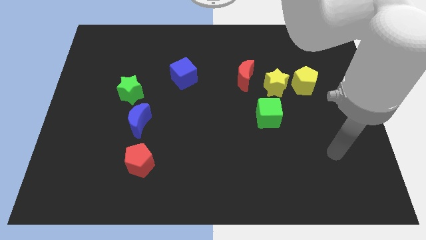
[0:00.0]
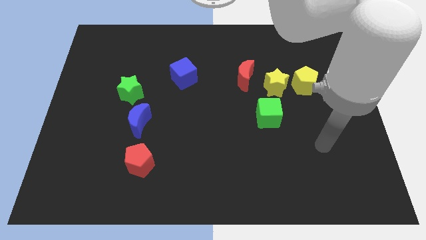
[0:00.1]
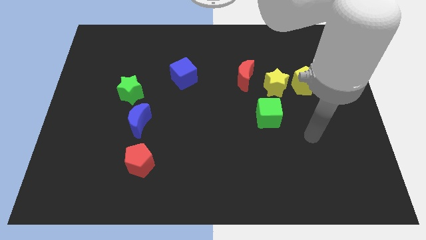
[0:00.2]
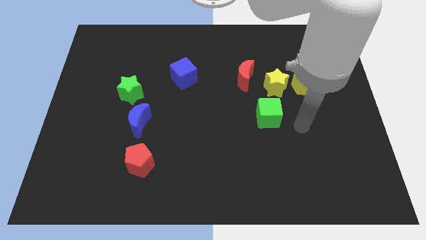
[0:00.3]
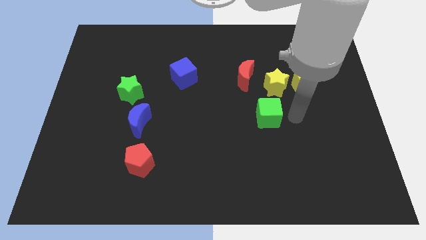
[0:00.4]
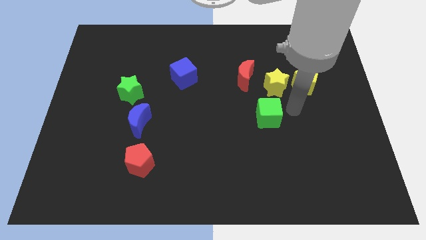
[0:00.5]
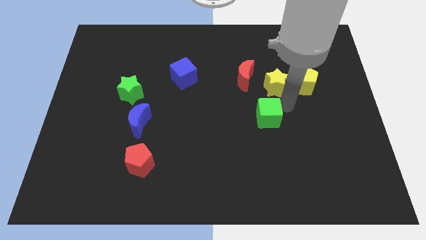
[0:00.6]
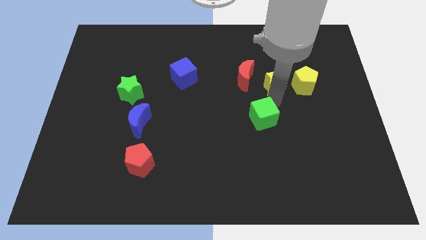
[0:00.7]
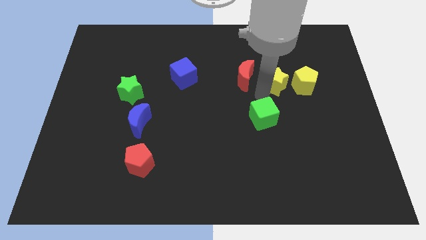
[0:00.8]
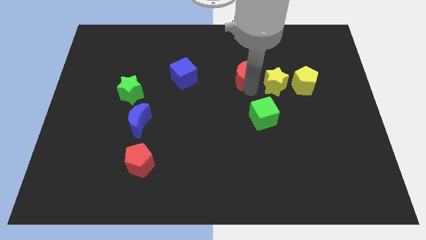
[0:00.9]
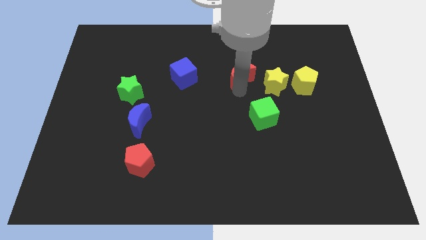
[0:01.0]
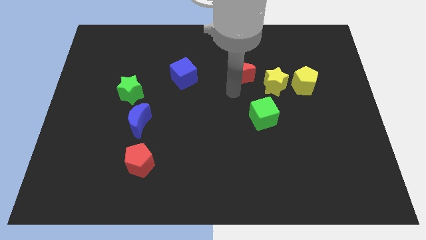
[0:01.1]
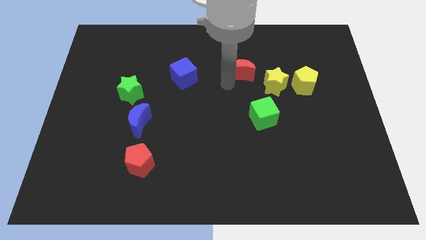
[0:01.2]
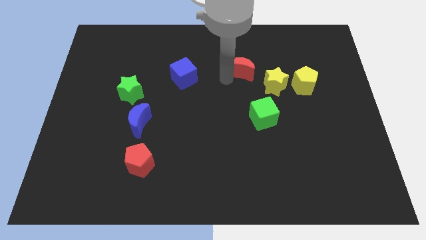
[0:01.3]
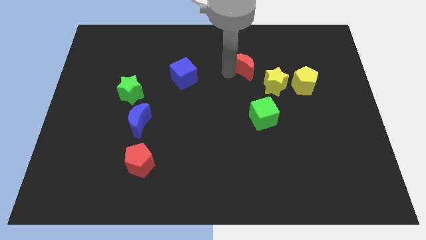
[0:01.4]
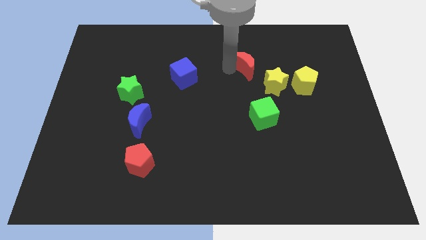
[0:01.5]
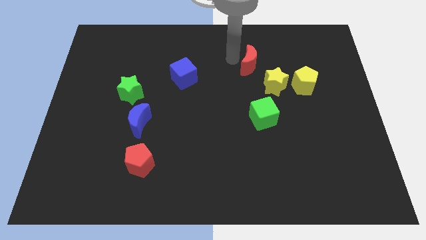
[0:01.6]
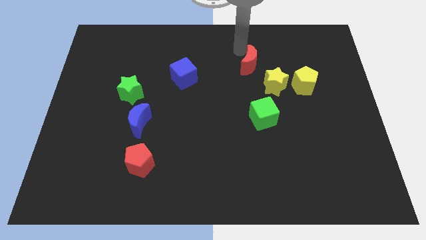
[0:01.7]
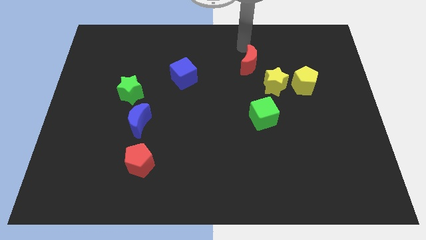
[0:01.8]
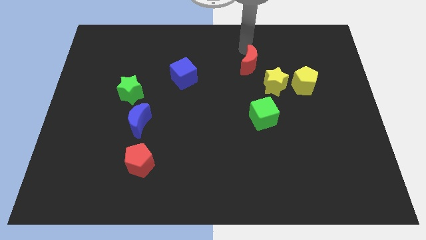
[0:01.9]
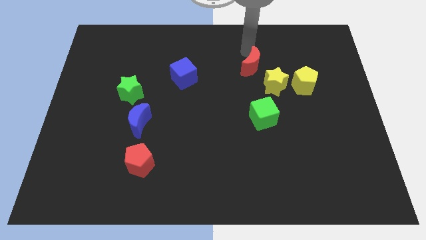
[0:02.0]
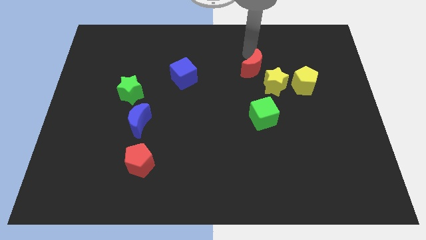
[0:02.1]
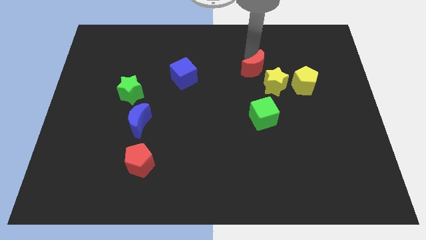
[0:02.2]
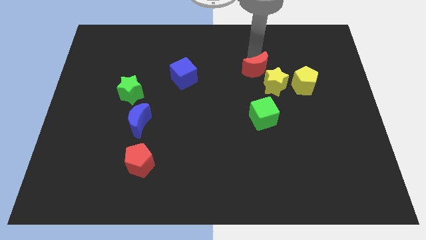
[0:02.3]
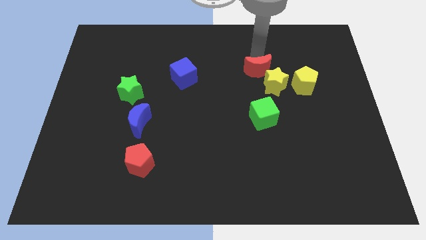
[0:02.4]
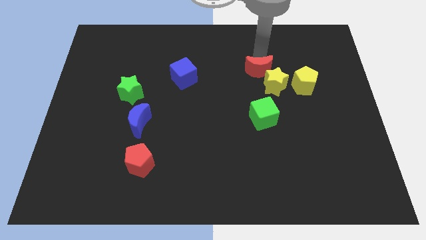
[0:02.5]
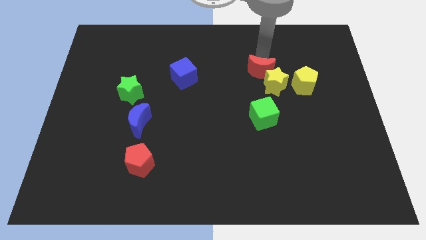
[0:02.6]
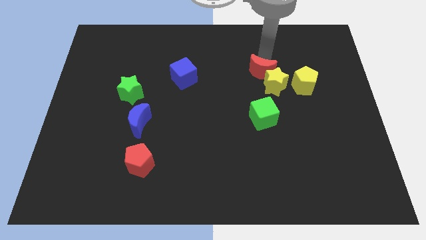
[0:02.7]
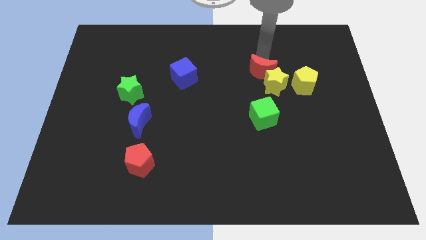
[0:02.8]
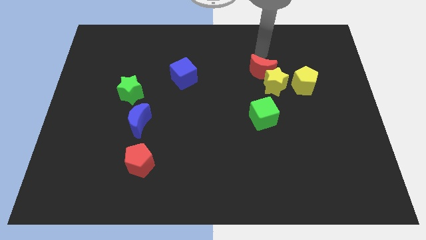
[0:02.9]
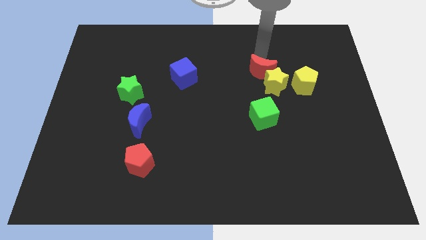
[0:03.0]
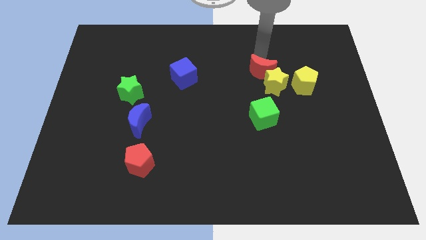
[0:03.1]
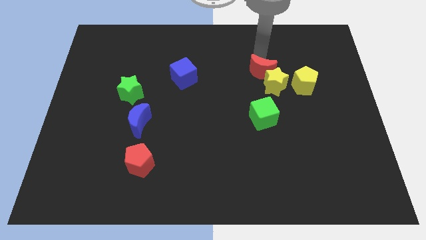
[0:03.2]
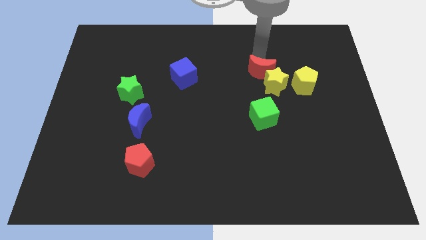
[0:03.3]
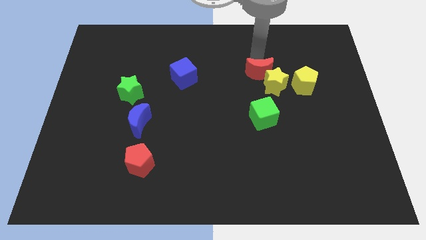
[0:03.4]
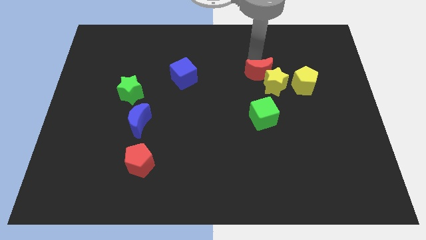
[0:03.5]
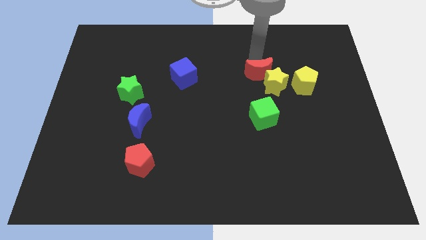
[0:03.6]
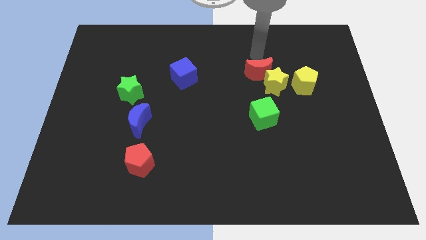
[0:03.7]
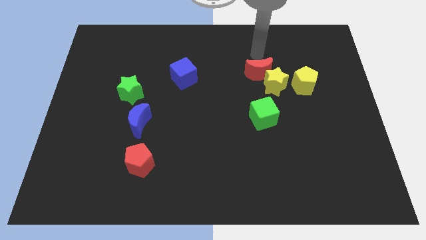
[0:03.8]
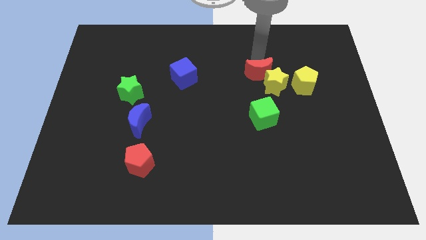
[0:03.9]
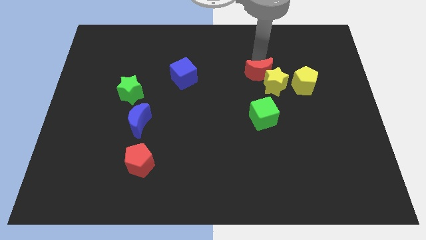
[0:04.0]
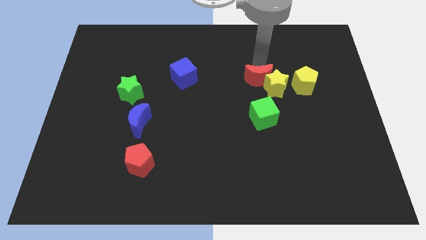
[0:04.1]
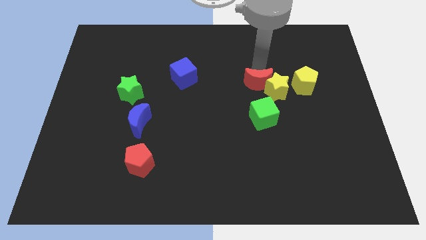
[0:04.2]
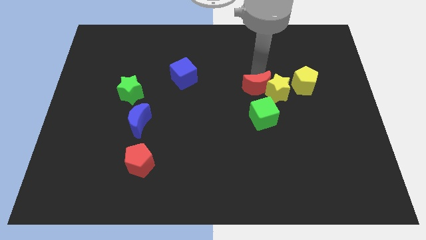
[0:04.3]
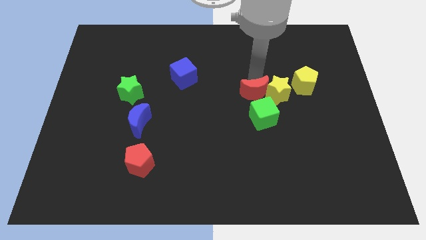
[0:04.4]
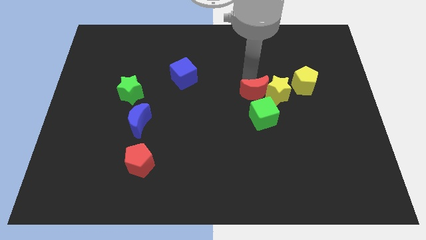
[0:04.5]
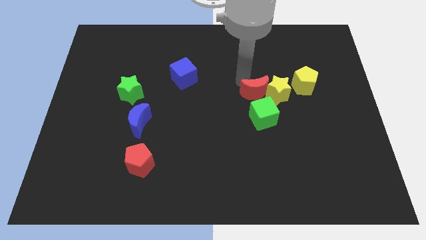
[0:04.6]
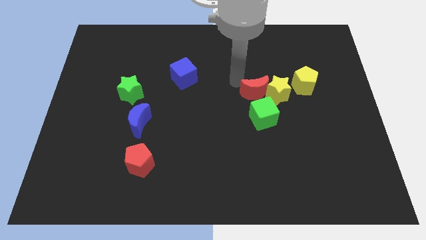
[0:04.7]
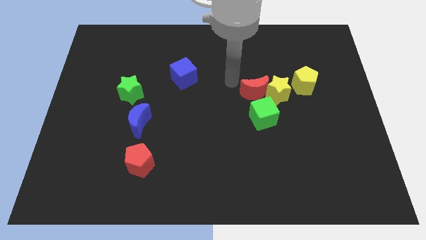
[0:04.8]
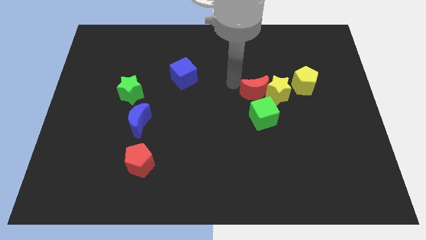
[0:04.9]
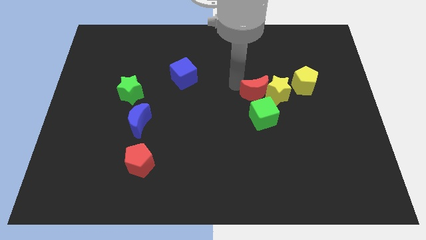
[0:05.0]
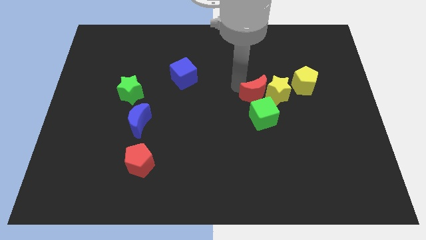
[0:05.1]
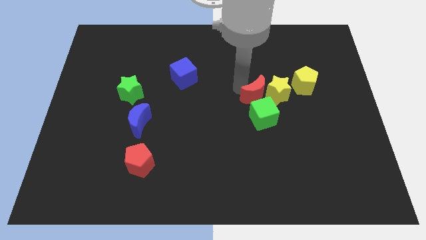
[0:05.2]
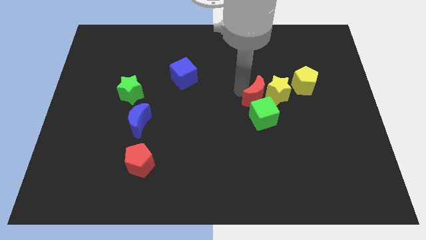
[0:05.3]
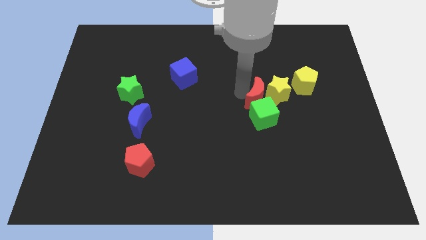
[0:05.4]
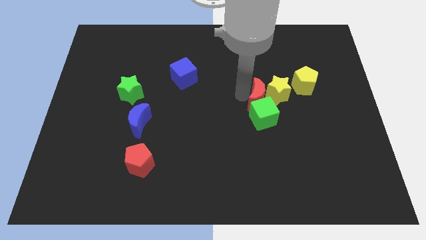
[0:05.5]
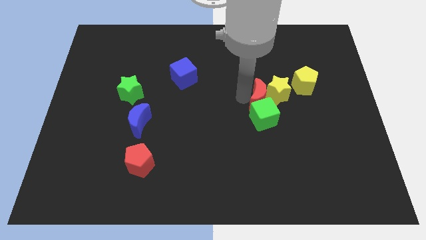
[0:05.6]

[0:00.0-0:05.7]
slightly push the red moon down and right

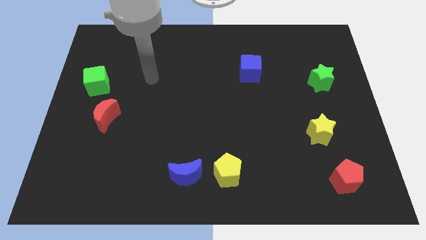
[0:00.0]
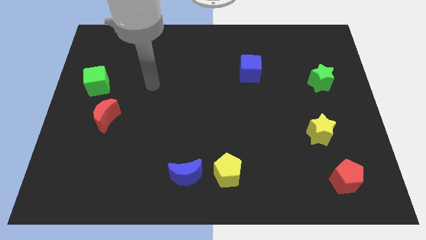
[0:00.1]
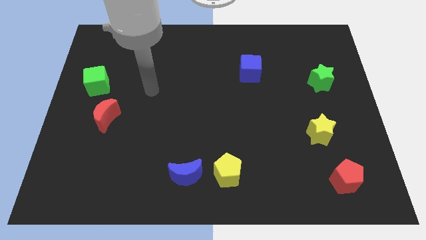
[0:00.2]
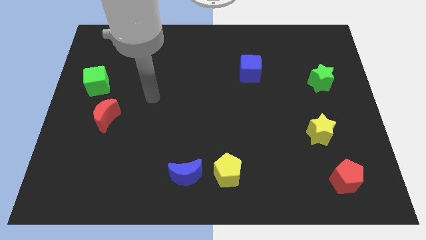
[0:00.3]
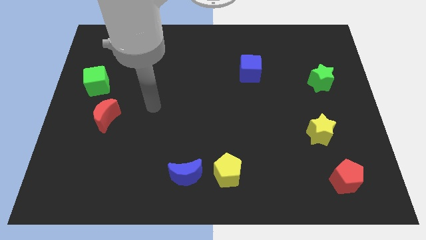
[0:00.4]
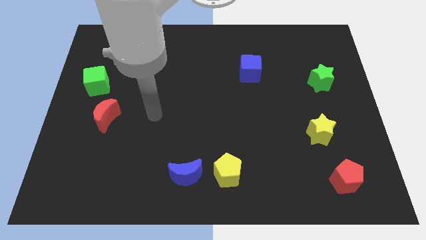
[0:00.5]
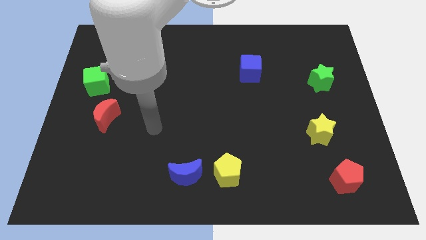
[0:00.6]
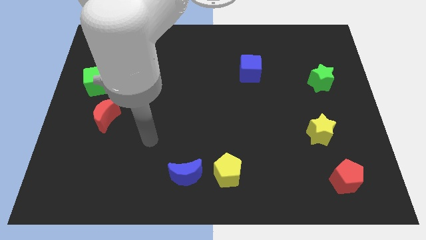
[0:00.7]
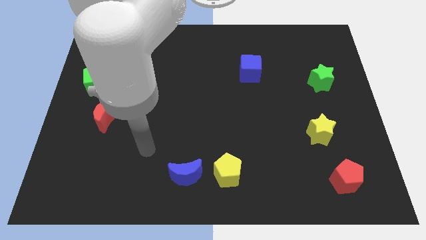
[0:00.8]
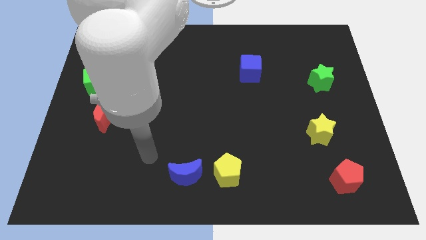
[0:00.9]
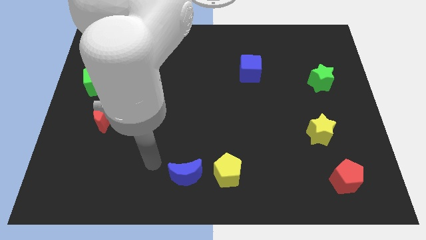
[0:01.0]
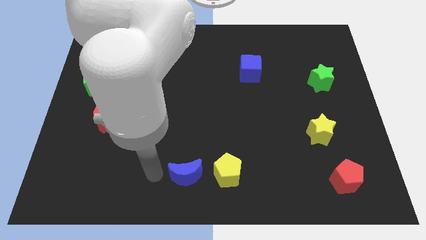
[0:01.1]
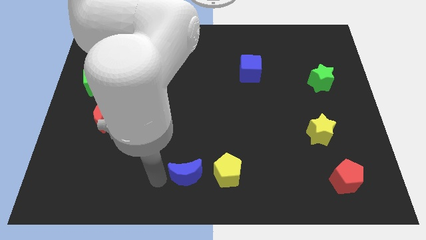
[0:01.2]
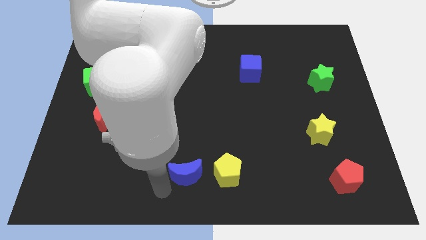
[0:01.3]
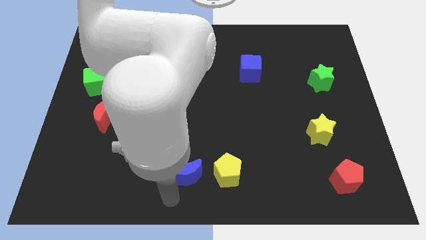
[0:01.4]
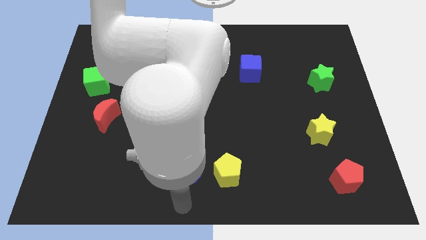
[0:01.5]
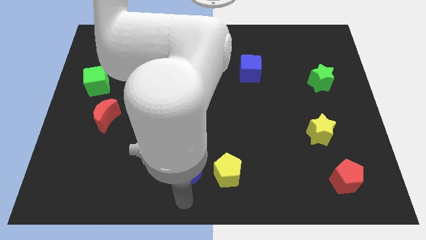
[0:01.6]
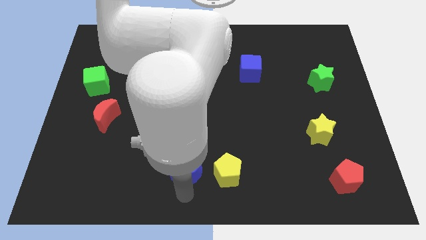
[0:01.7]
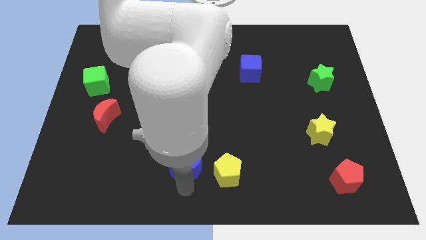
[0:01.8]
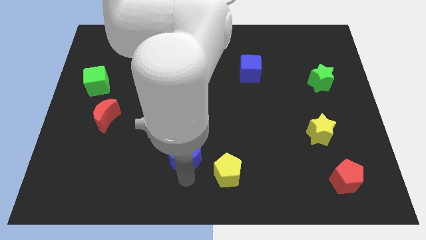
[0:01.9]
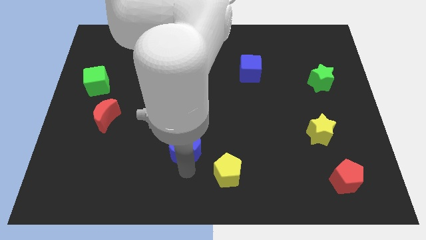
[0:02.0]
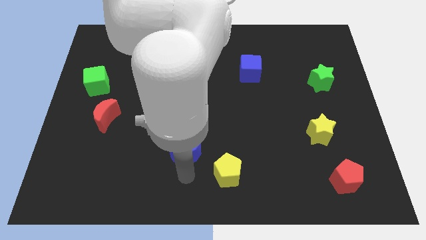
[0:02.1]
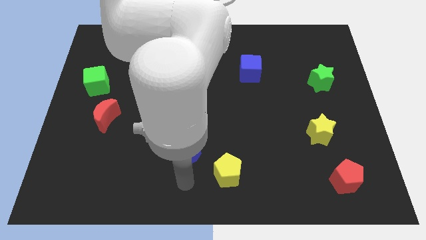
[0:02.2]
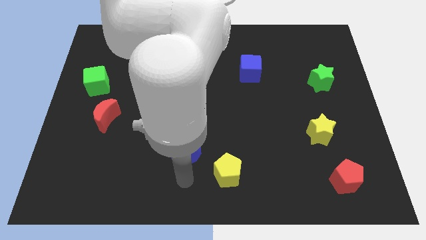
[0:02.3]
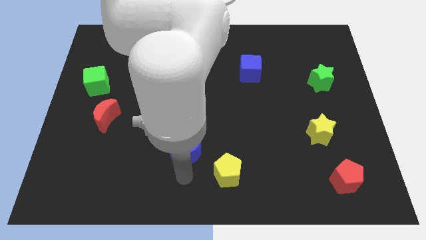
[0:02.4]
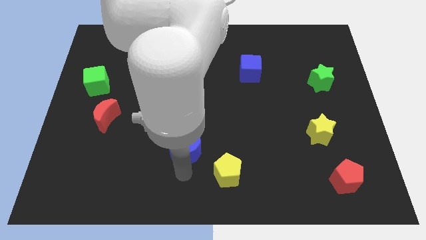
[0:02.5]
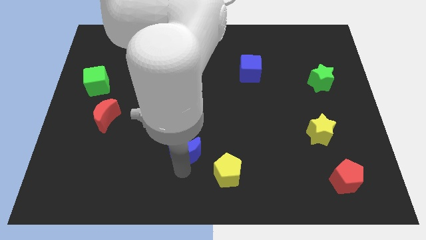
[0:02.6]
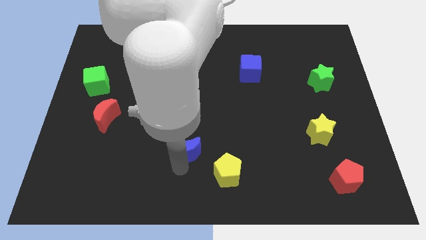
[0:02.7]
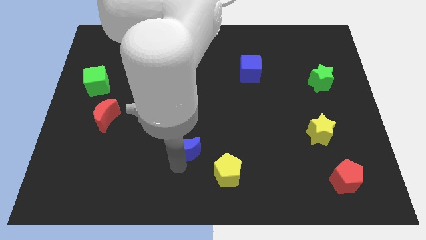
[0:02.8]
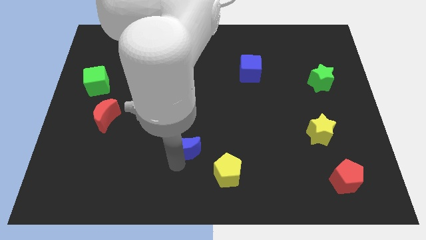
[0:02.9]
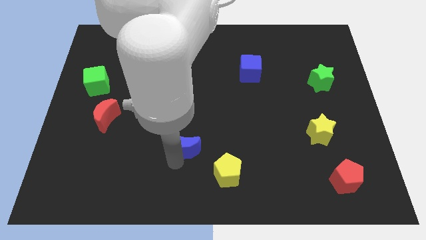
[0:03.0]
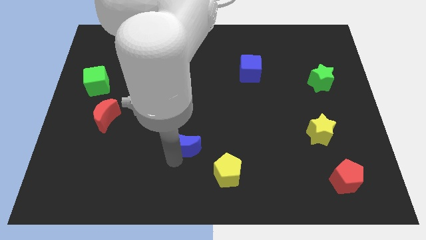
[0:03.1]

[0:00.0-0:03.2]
slightly move the blue moon upwards
